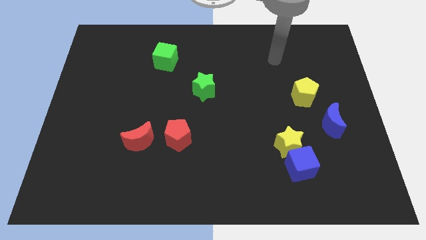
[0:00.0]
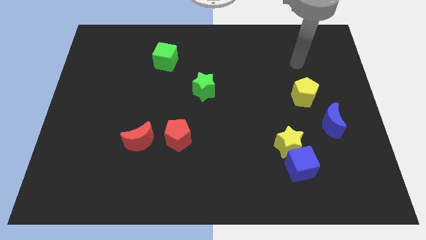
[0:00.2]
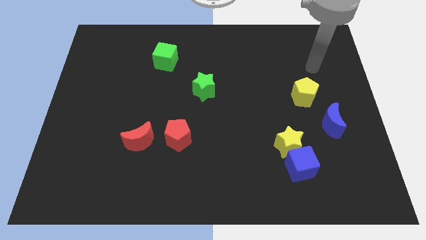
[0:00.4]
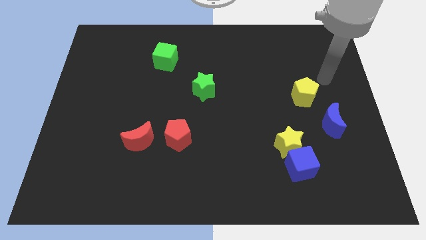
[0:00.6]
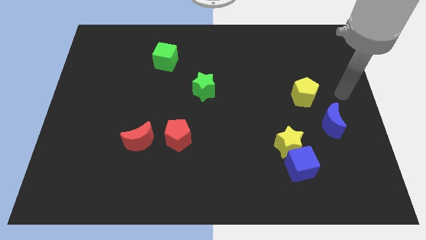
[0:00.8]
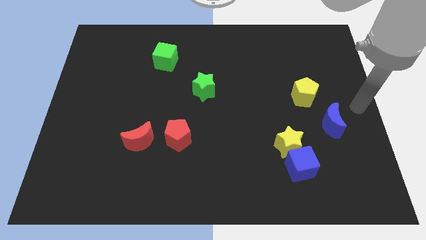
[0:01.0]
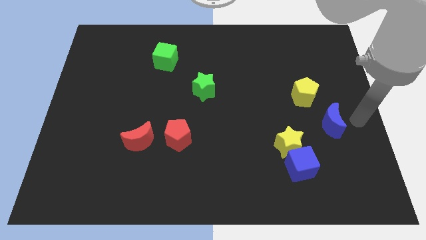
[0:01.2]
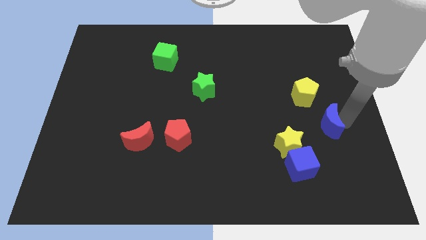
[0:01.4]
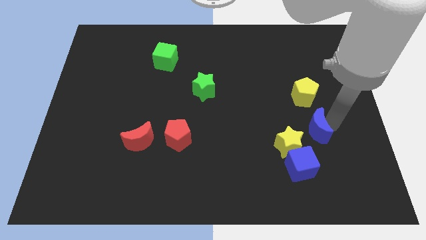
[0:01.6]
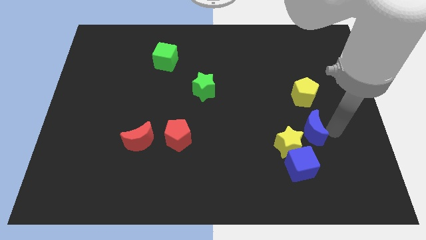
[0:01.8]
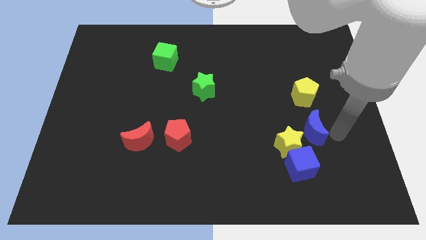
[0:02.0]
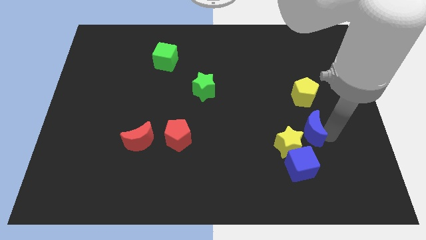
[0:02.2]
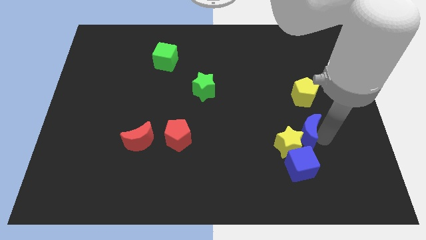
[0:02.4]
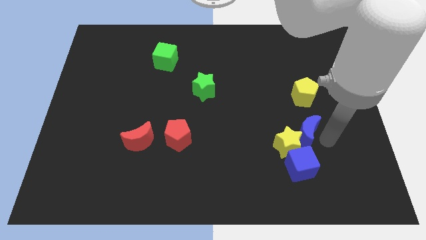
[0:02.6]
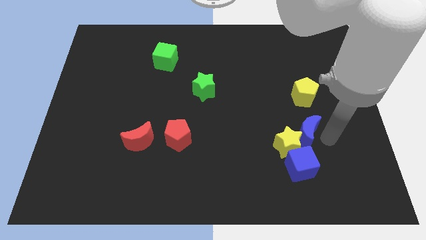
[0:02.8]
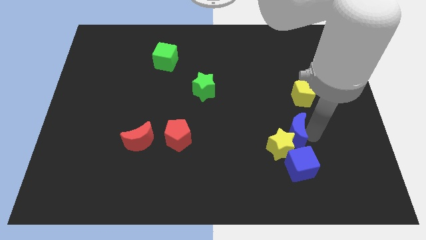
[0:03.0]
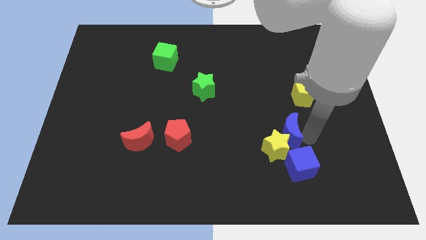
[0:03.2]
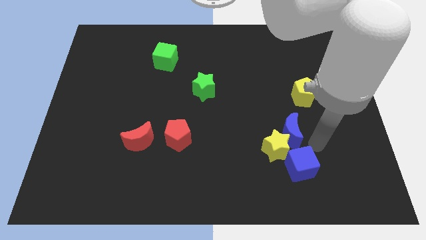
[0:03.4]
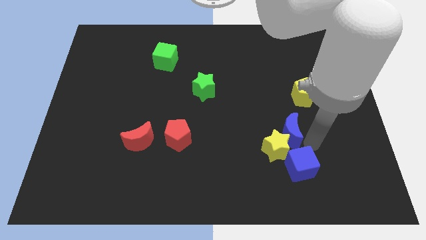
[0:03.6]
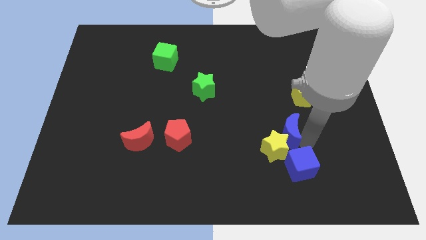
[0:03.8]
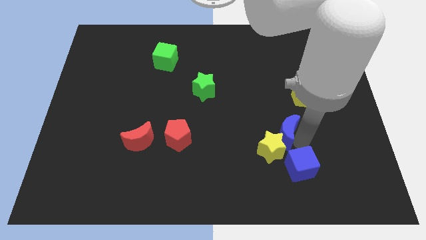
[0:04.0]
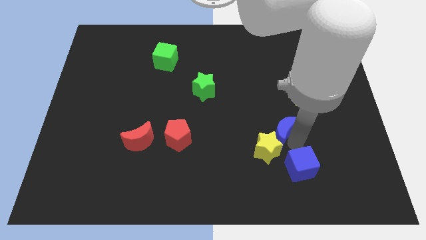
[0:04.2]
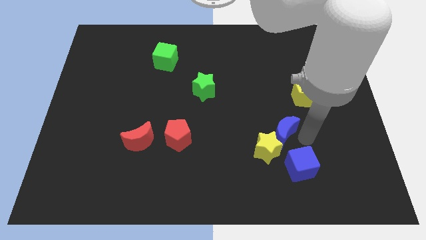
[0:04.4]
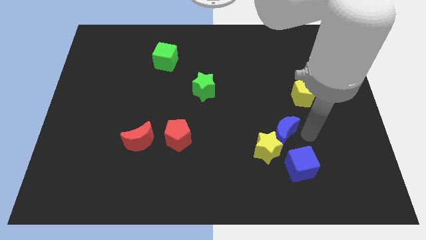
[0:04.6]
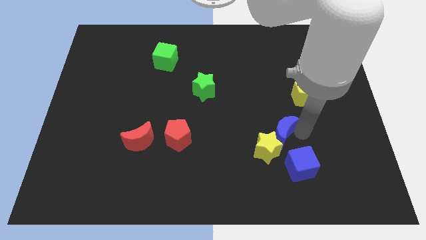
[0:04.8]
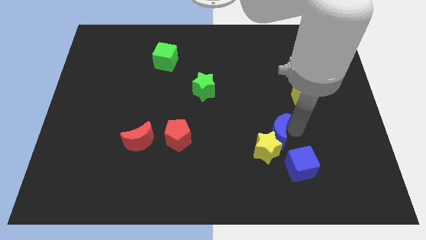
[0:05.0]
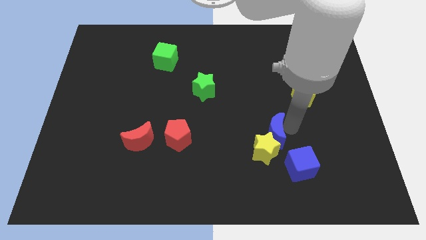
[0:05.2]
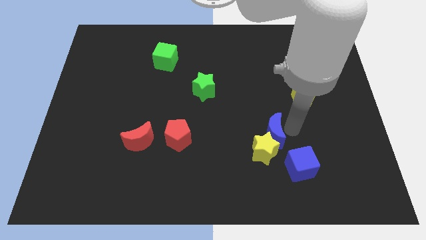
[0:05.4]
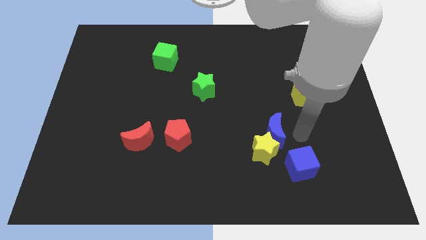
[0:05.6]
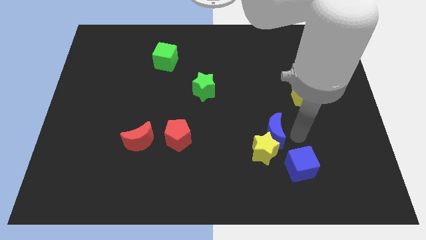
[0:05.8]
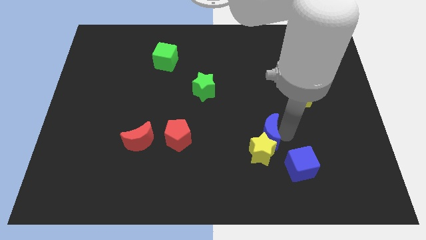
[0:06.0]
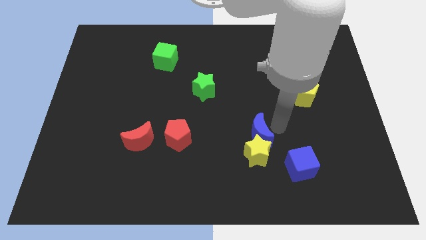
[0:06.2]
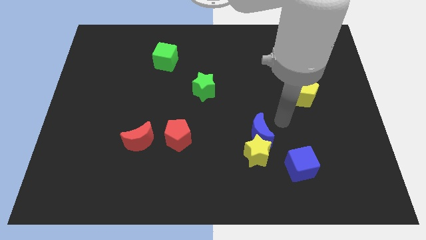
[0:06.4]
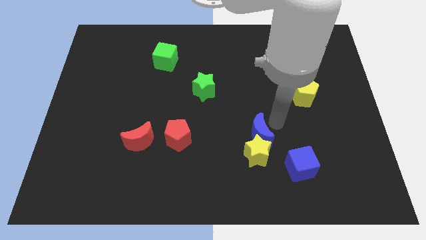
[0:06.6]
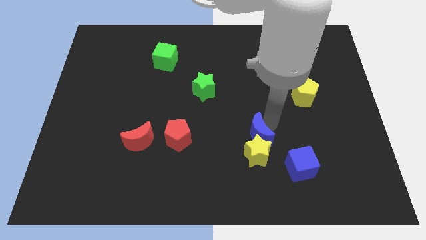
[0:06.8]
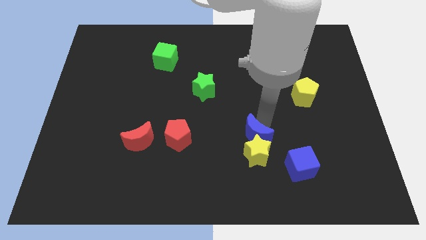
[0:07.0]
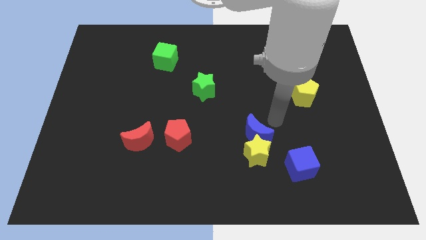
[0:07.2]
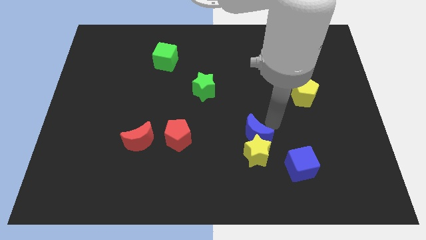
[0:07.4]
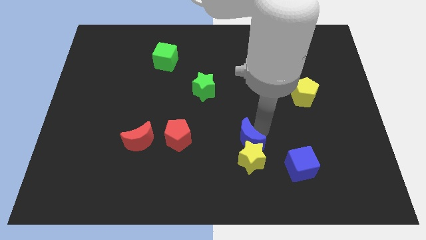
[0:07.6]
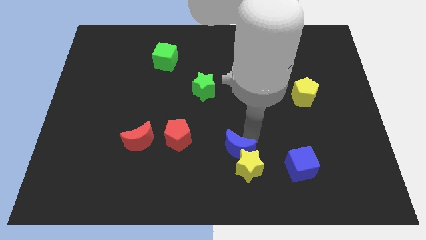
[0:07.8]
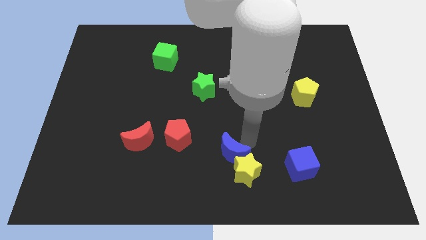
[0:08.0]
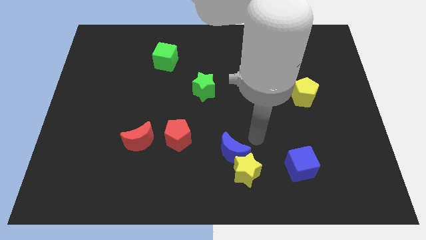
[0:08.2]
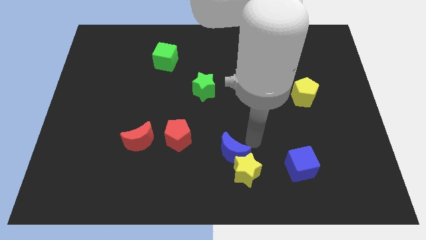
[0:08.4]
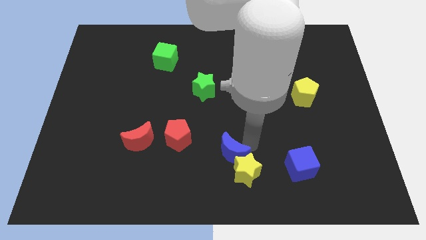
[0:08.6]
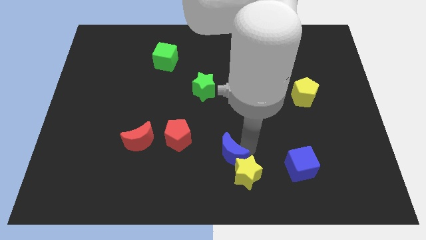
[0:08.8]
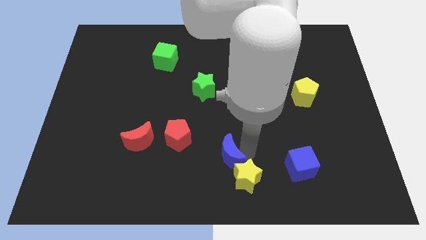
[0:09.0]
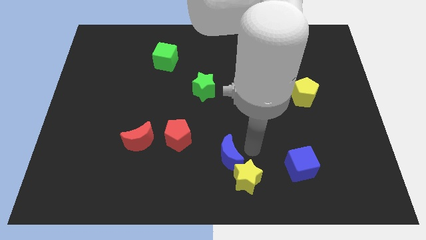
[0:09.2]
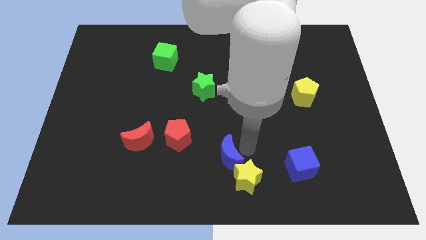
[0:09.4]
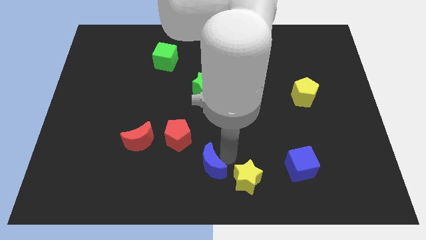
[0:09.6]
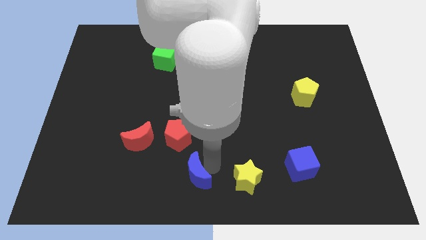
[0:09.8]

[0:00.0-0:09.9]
slide the blue moon to the bottom side of the red pentagon

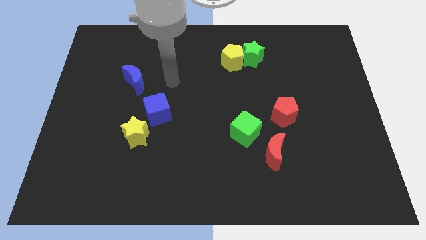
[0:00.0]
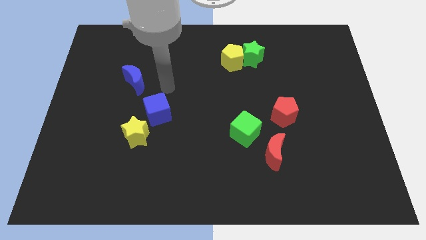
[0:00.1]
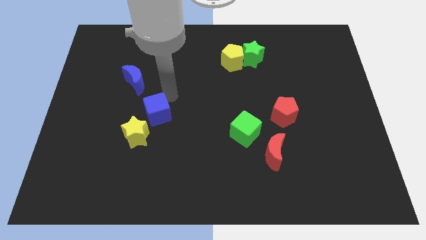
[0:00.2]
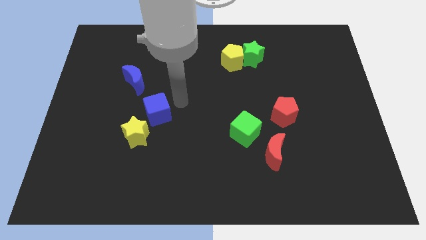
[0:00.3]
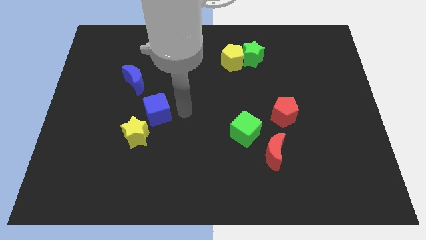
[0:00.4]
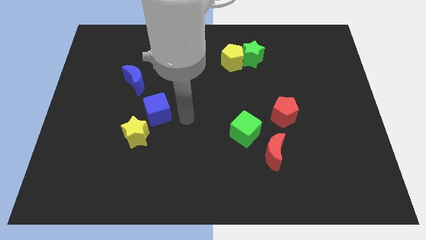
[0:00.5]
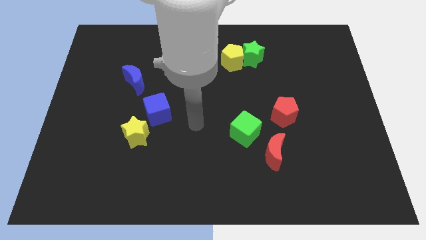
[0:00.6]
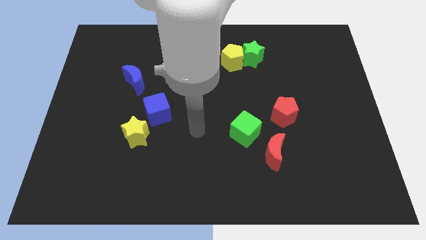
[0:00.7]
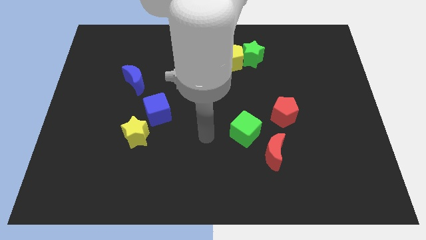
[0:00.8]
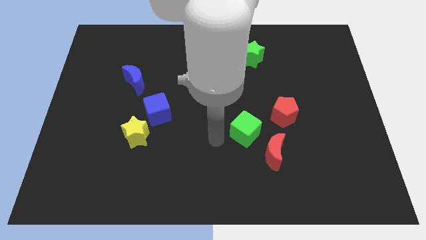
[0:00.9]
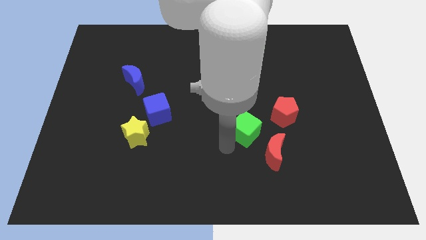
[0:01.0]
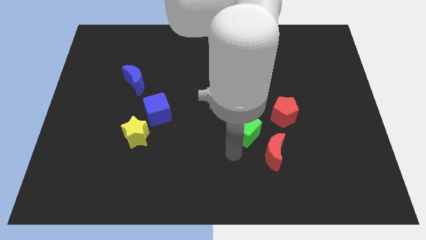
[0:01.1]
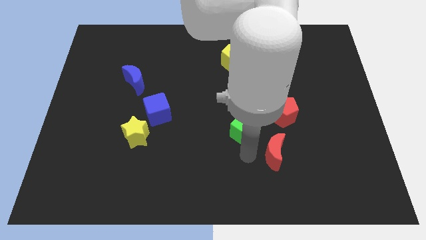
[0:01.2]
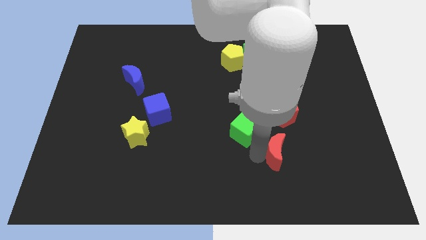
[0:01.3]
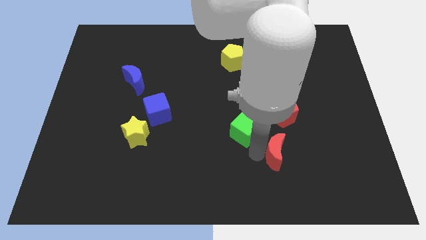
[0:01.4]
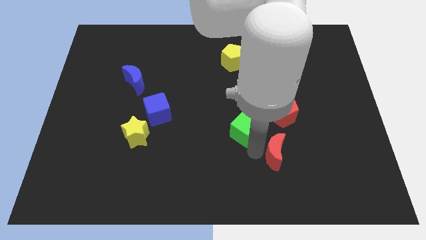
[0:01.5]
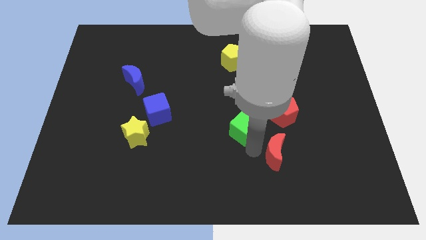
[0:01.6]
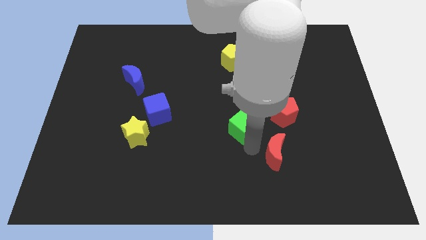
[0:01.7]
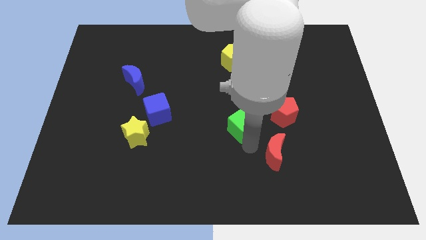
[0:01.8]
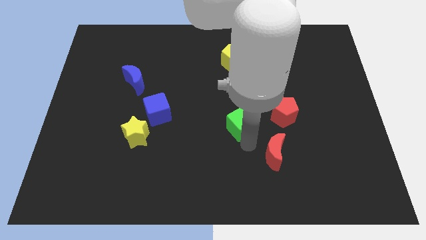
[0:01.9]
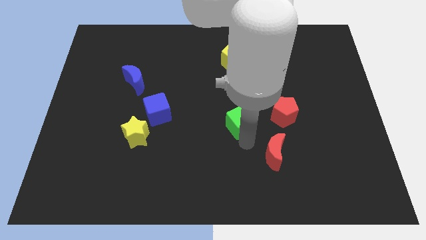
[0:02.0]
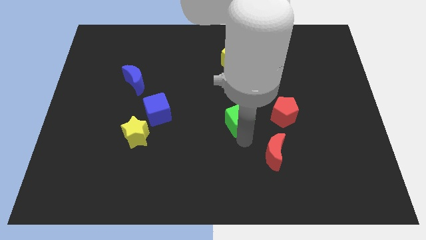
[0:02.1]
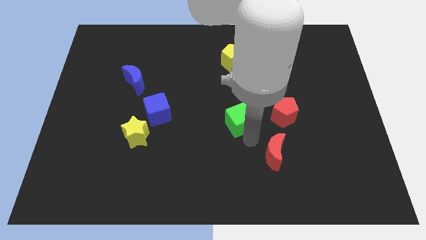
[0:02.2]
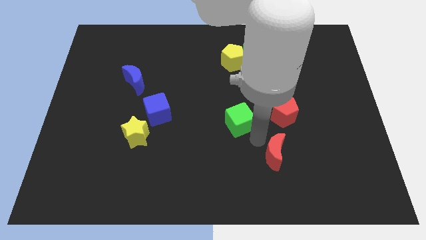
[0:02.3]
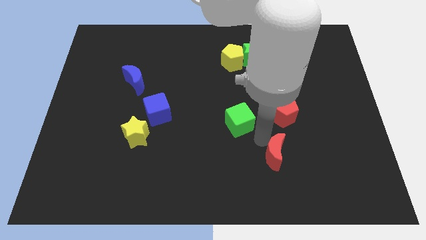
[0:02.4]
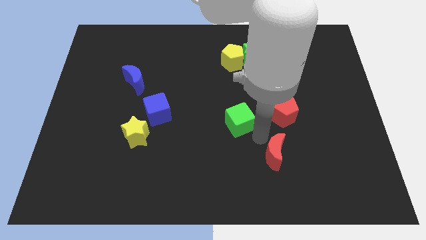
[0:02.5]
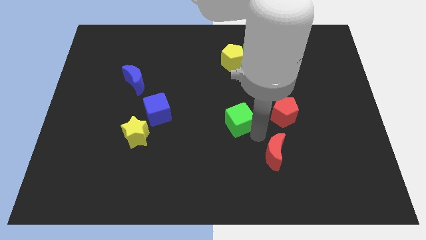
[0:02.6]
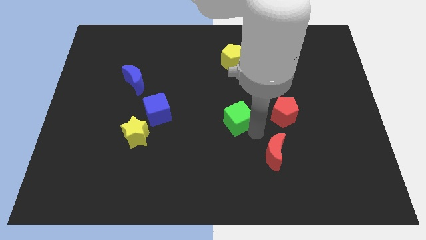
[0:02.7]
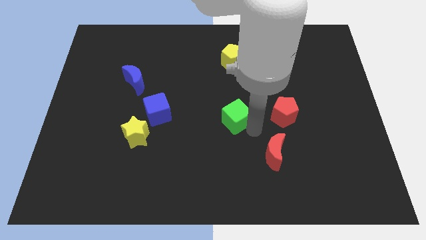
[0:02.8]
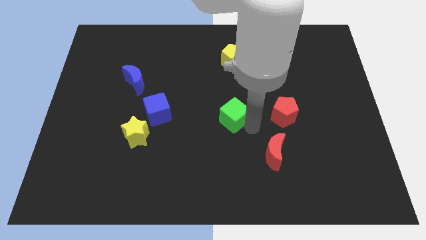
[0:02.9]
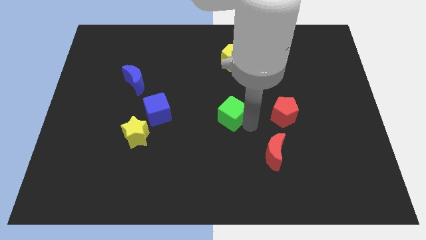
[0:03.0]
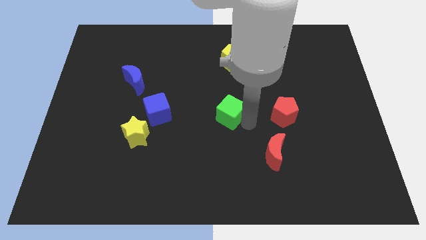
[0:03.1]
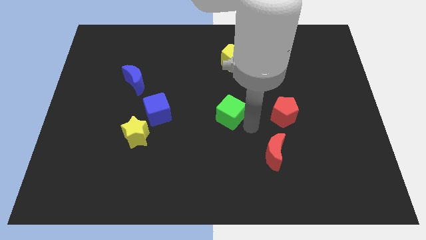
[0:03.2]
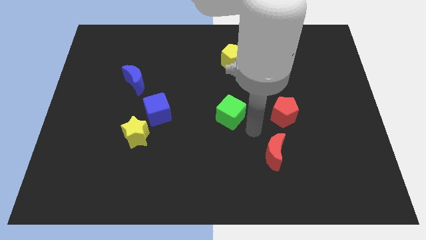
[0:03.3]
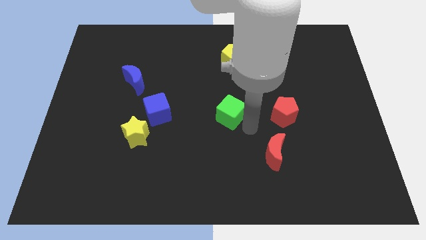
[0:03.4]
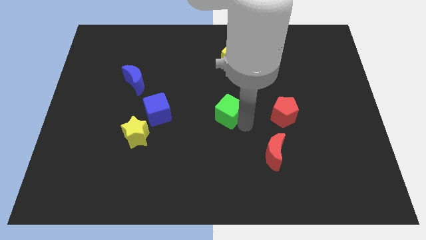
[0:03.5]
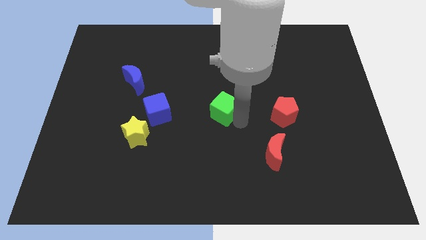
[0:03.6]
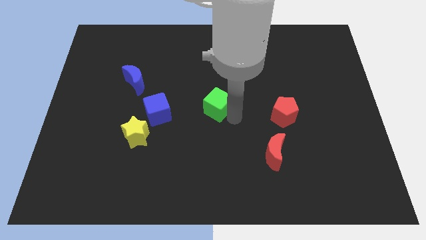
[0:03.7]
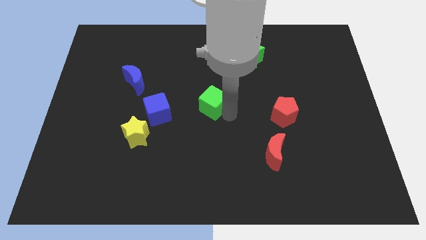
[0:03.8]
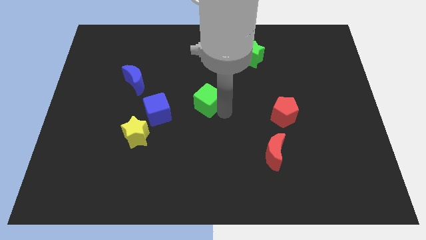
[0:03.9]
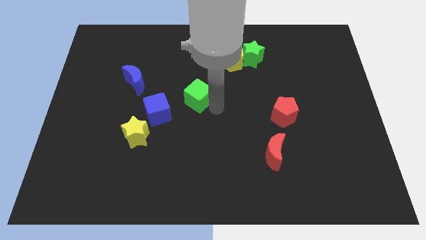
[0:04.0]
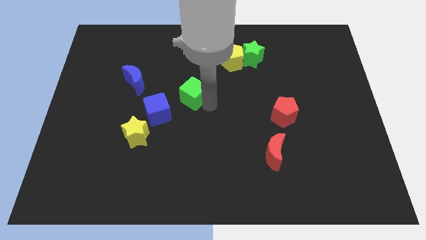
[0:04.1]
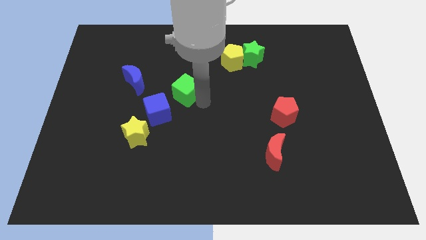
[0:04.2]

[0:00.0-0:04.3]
put the green cube just right of the blue moon
